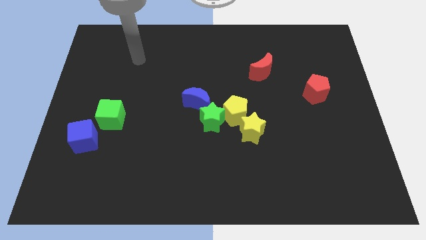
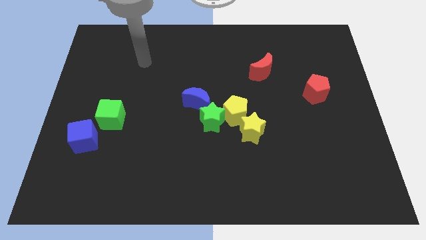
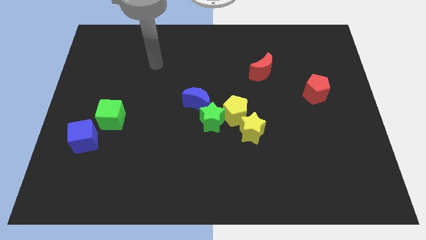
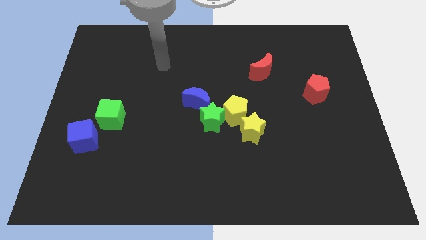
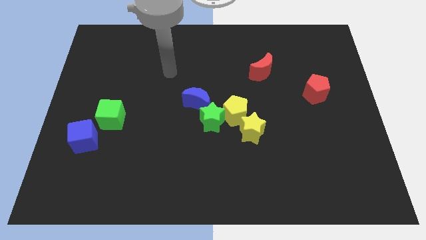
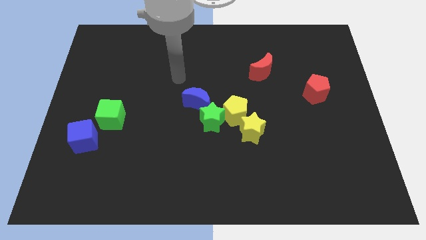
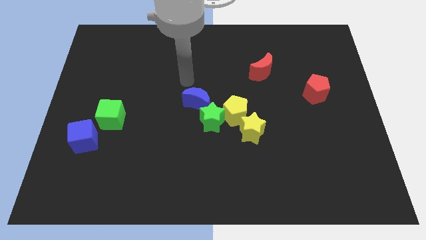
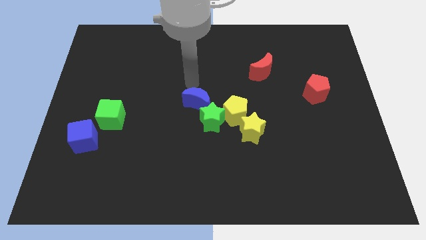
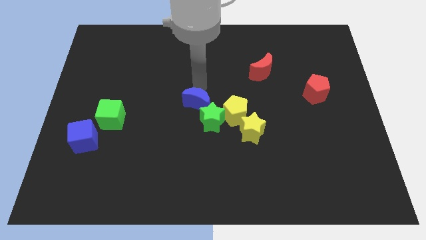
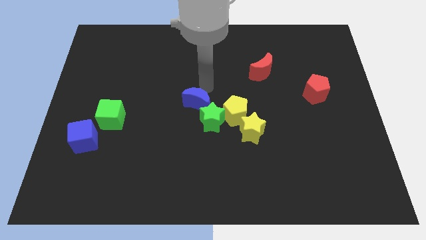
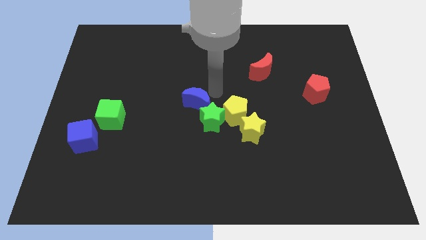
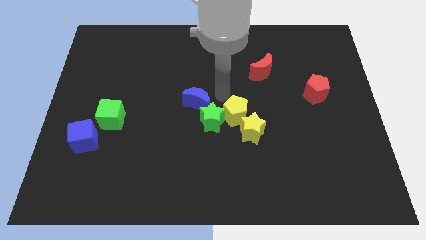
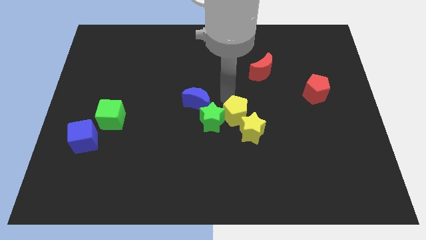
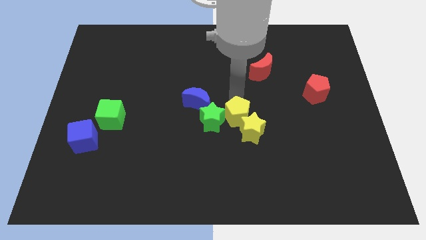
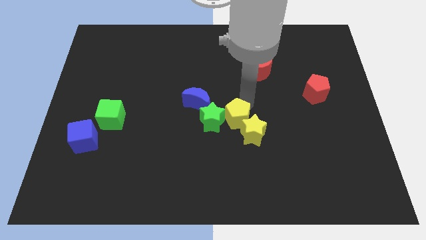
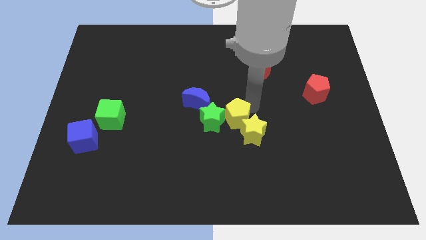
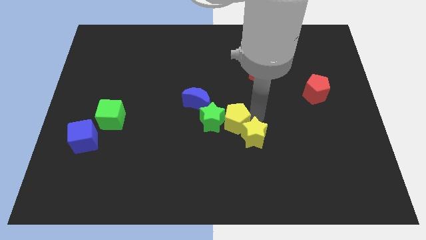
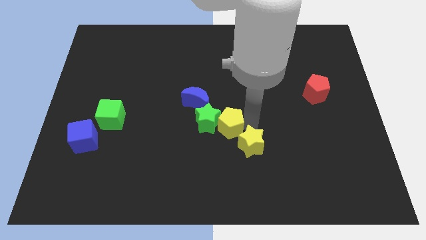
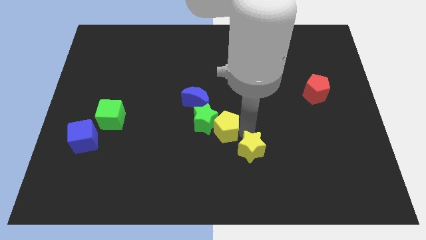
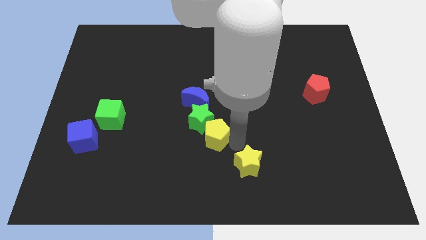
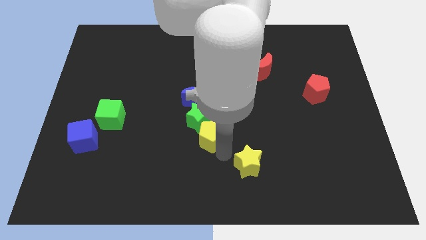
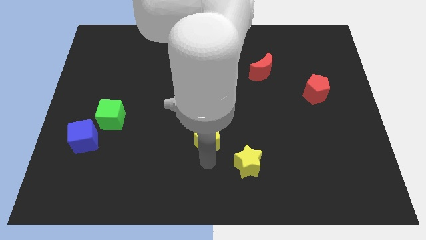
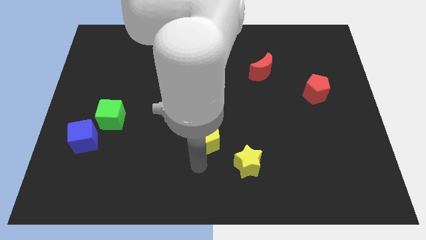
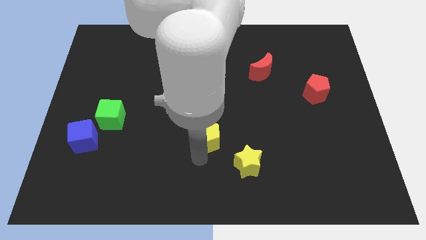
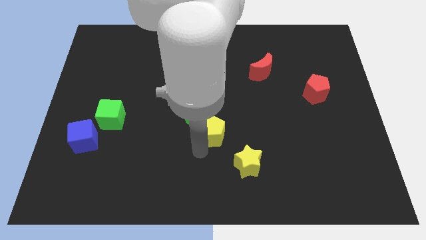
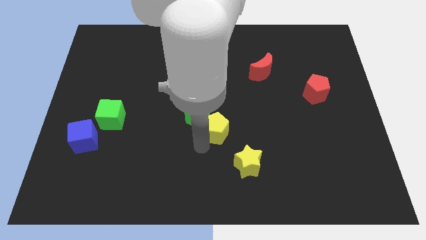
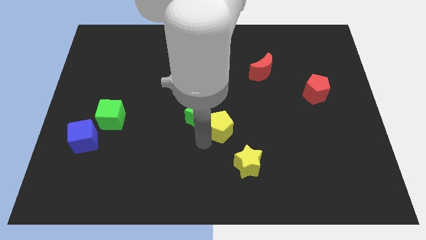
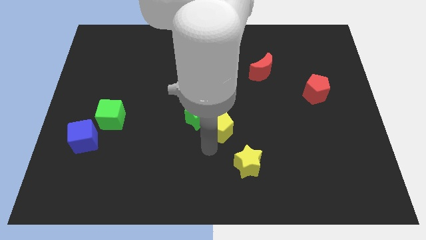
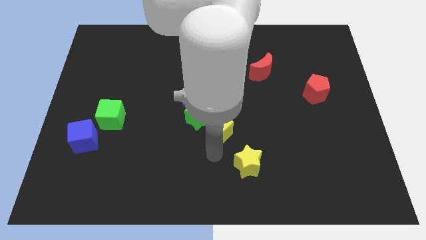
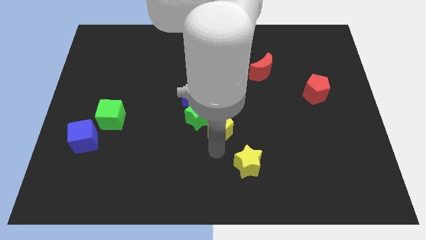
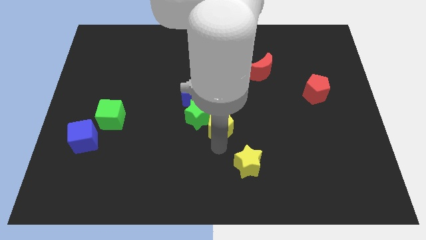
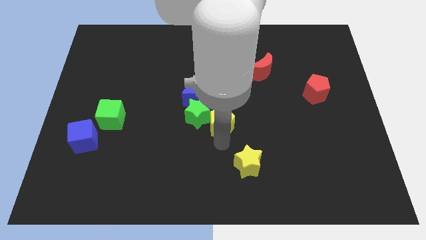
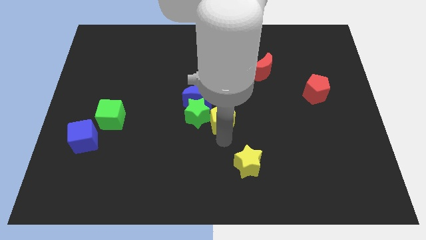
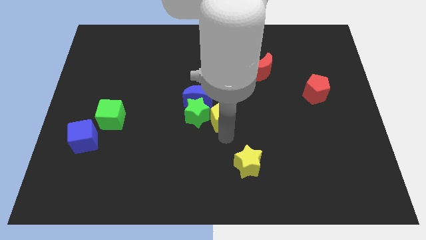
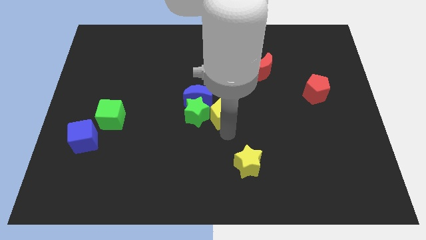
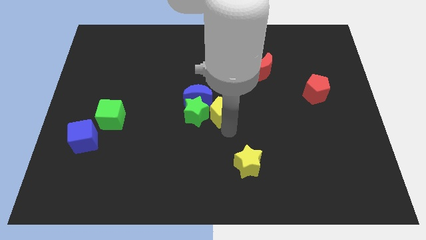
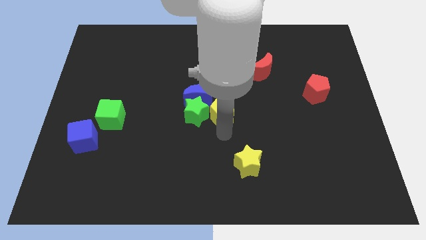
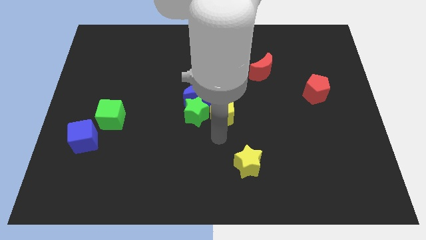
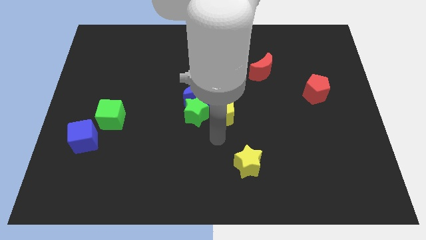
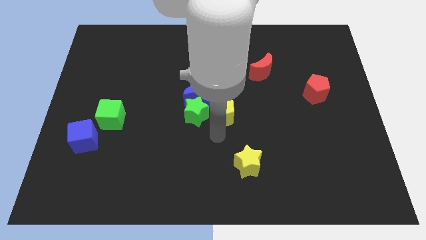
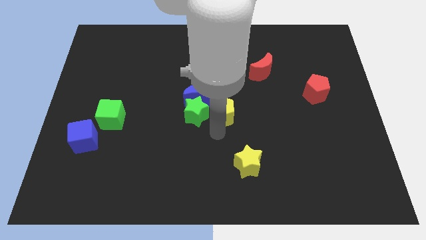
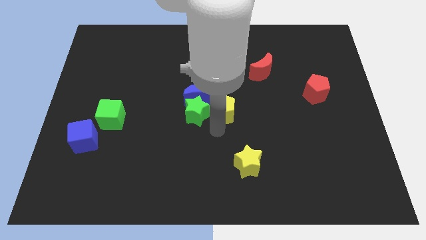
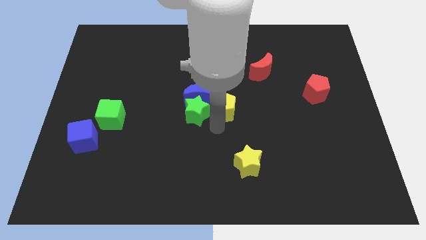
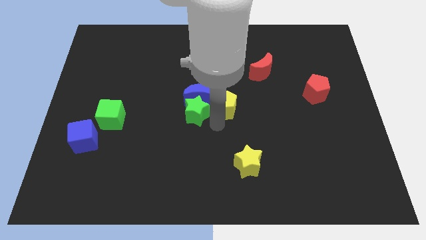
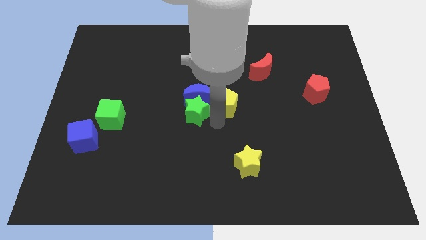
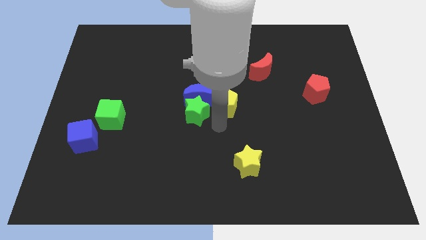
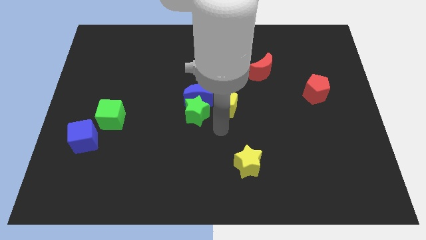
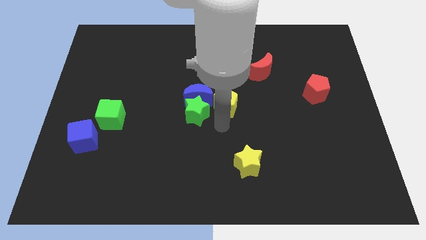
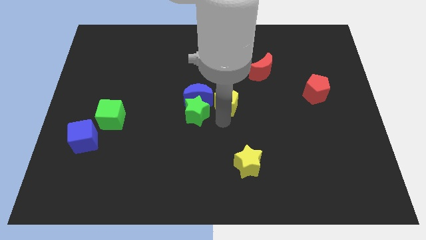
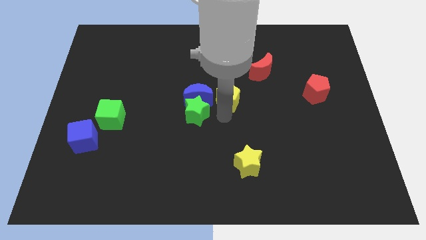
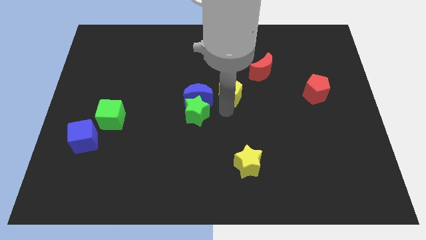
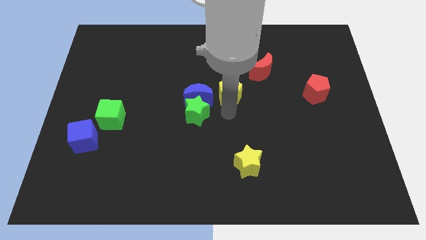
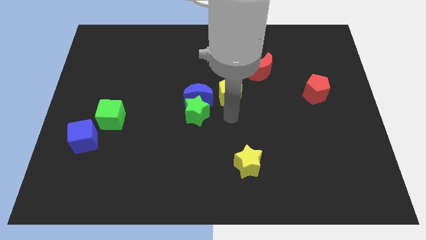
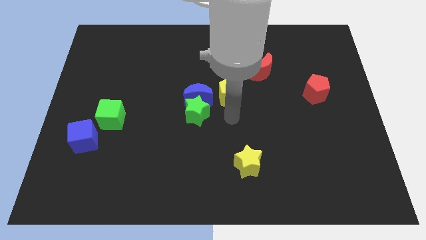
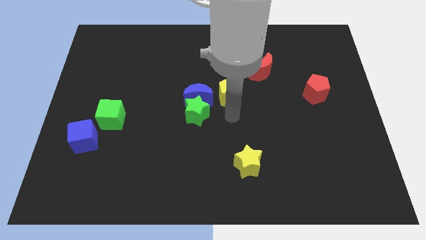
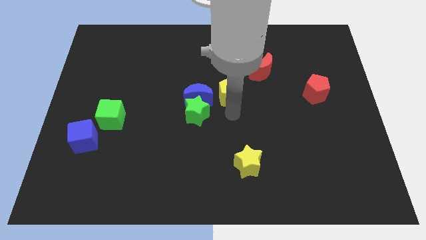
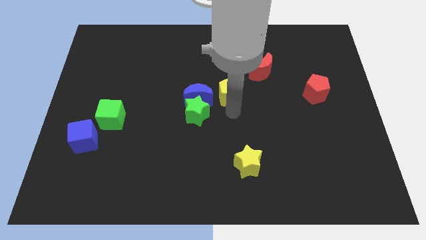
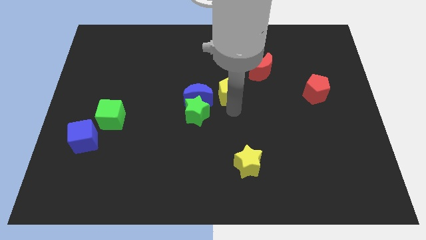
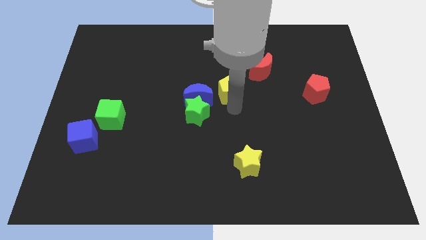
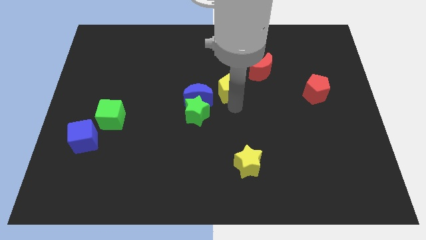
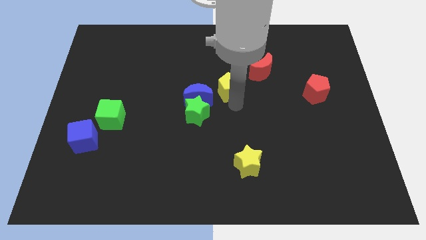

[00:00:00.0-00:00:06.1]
slightly push the yellow pentagon upwards

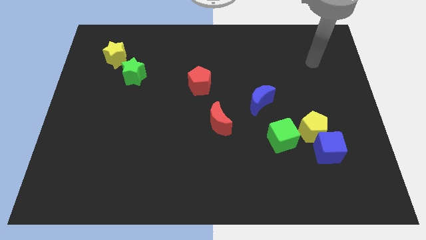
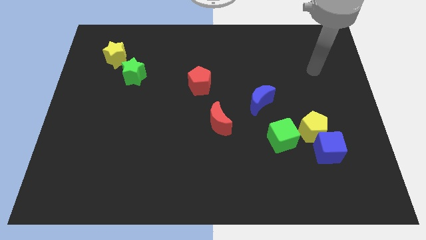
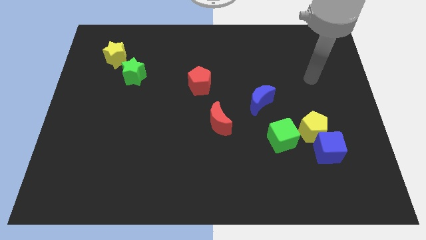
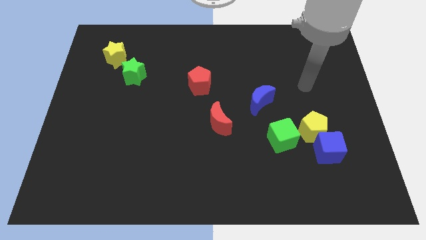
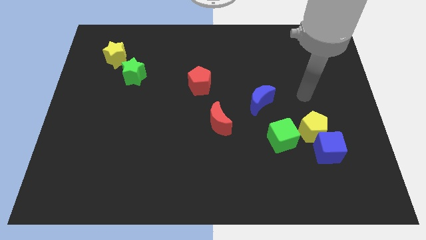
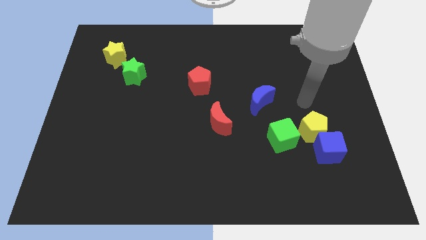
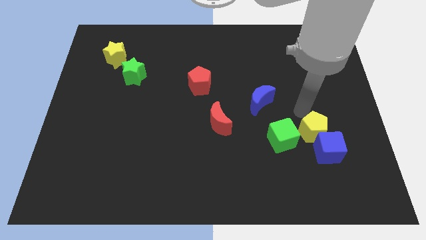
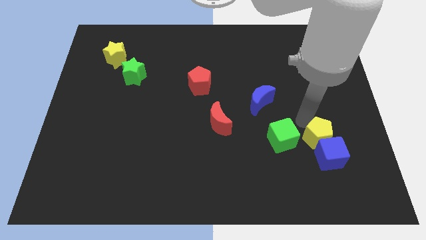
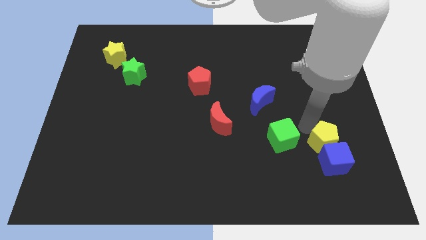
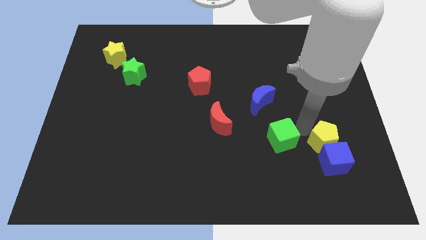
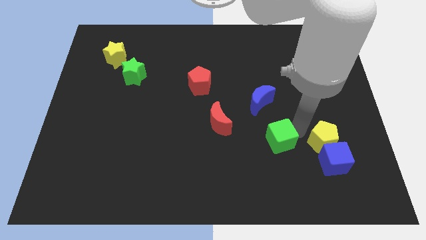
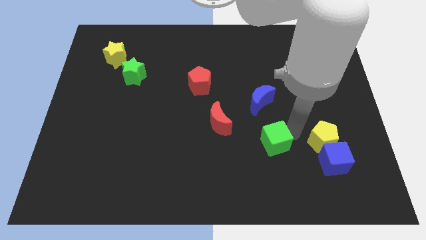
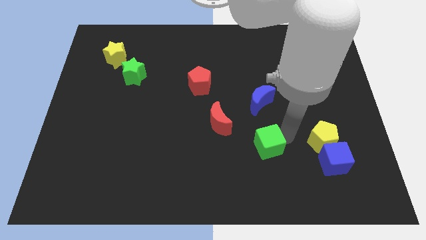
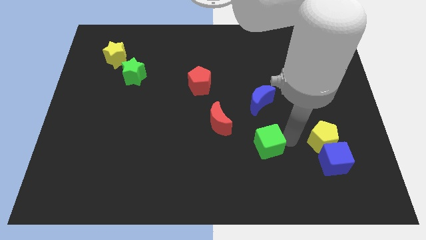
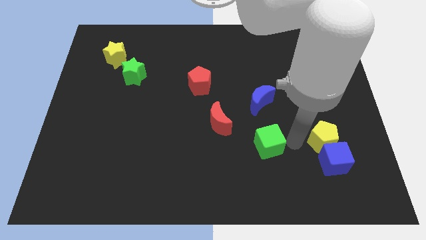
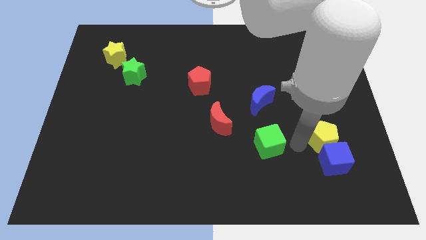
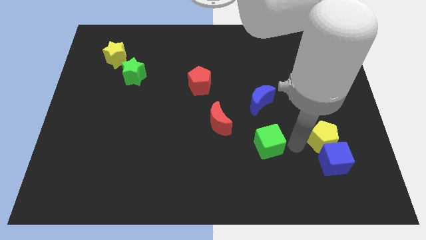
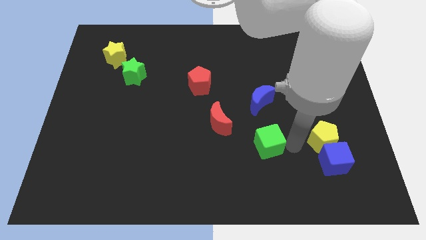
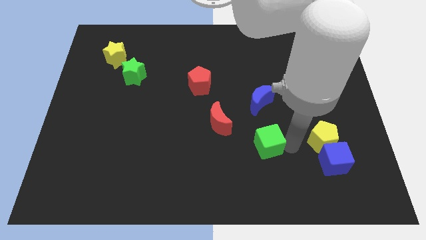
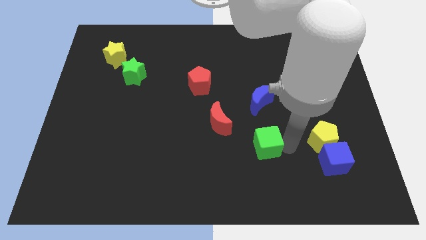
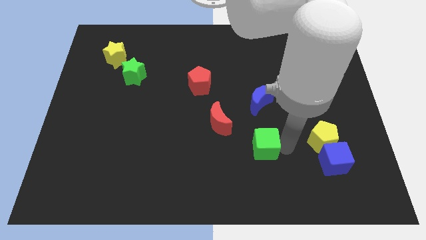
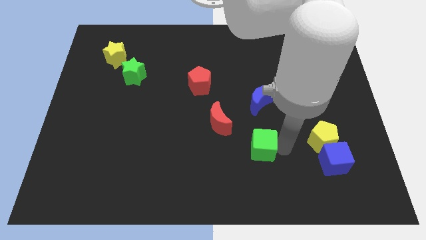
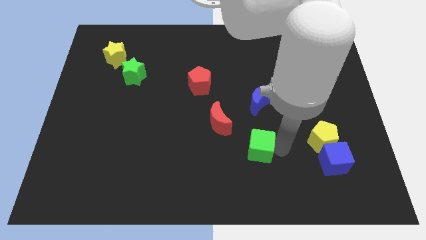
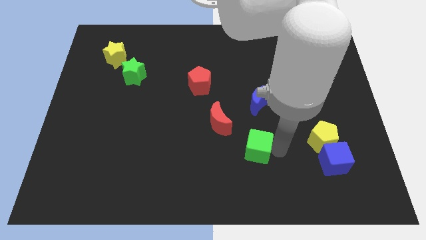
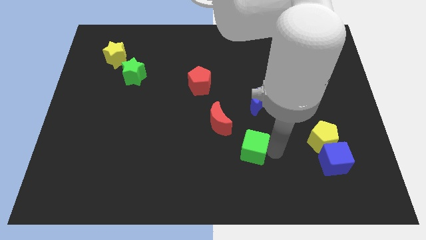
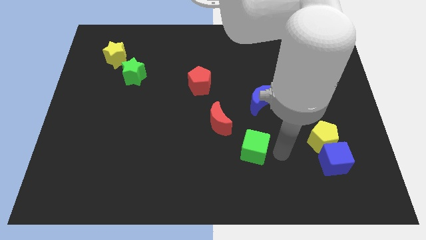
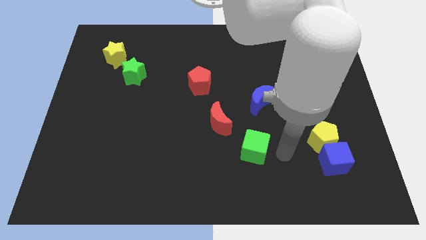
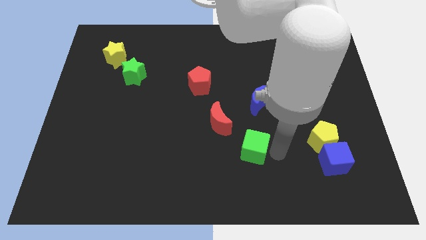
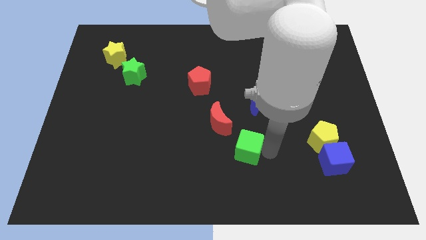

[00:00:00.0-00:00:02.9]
move the green cube to the left a bit
